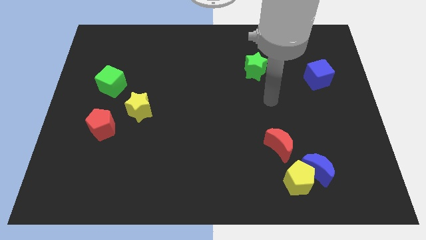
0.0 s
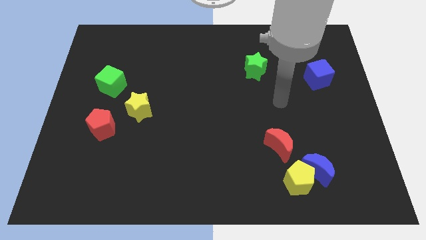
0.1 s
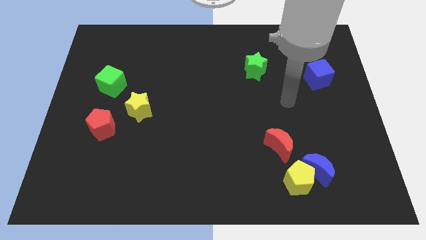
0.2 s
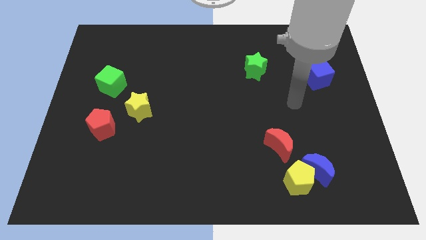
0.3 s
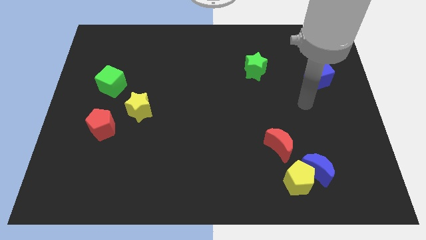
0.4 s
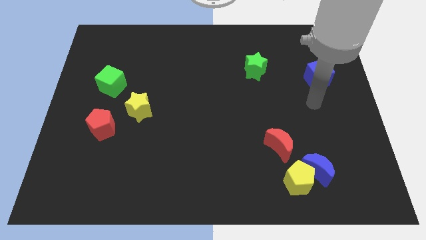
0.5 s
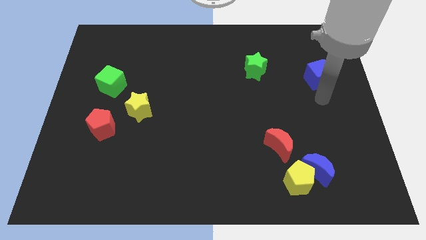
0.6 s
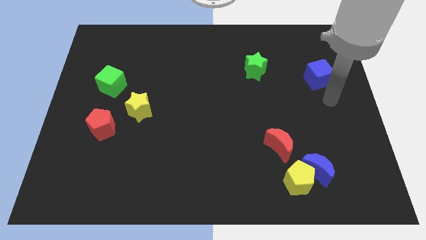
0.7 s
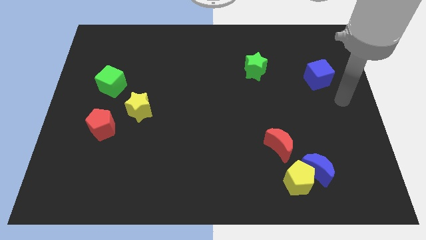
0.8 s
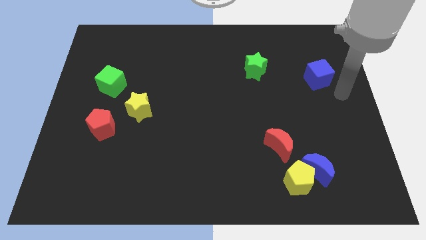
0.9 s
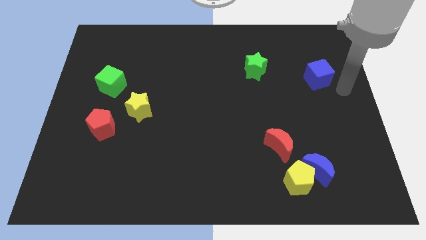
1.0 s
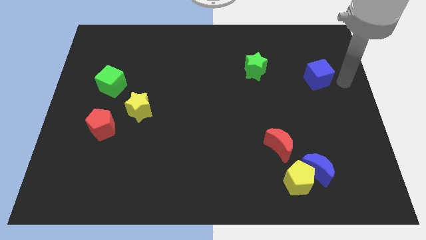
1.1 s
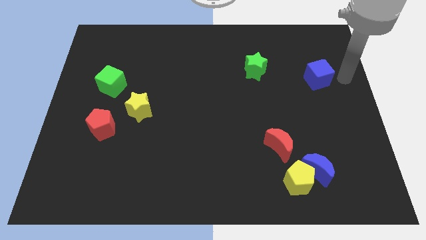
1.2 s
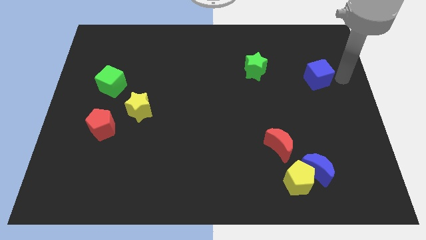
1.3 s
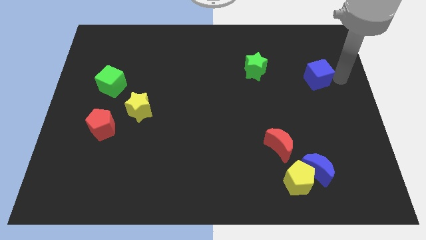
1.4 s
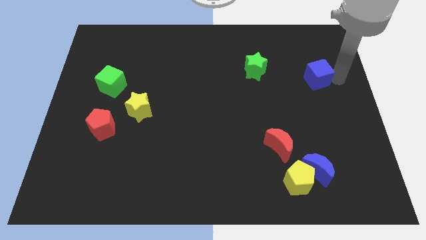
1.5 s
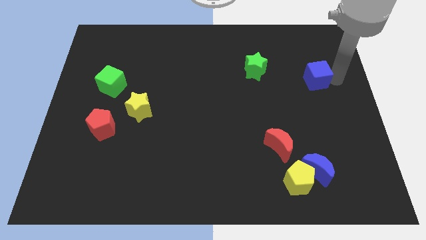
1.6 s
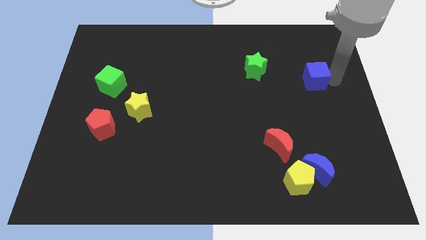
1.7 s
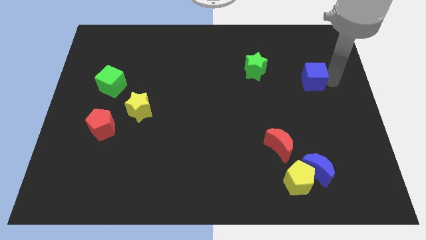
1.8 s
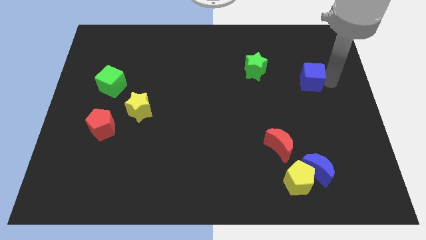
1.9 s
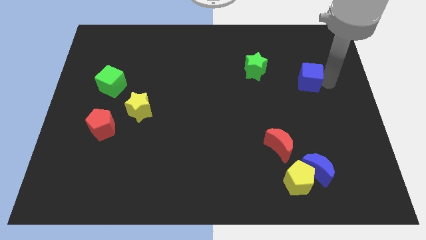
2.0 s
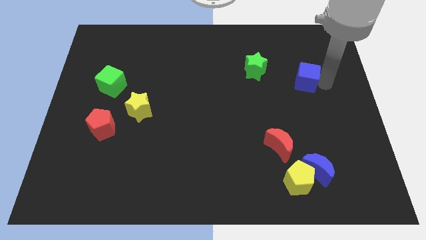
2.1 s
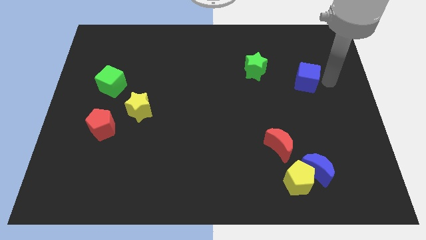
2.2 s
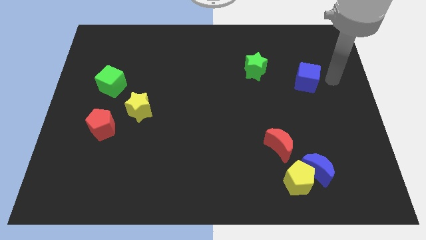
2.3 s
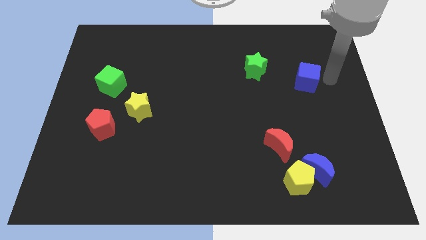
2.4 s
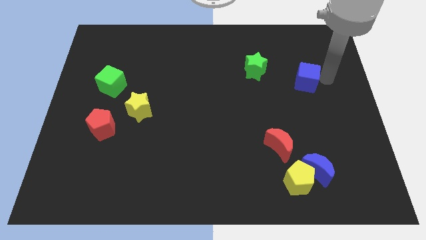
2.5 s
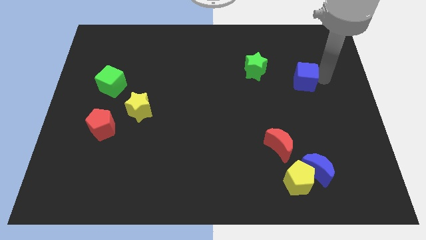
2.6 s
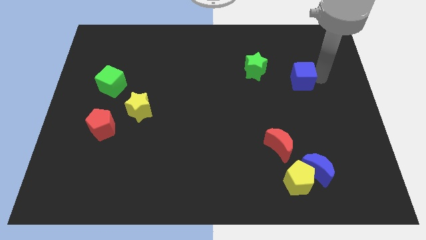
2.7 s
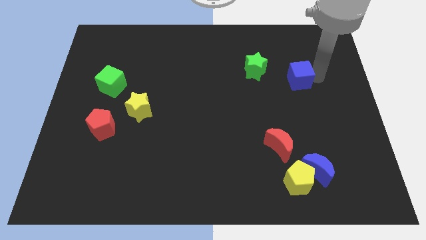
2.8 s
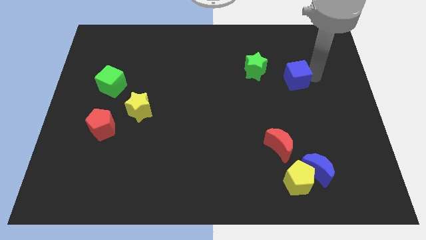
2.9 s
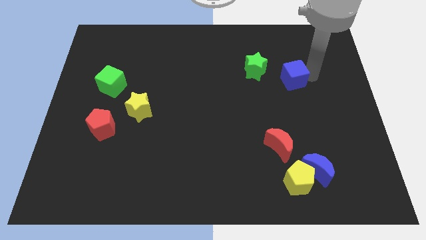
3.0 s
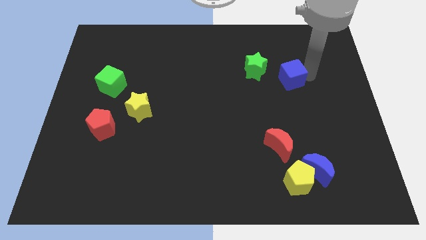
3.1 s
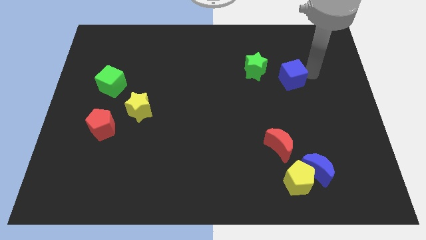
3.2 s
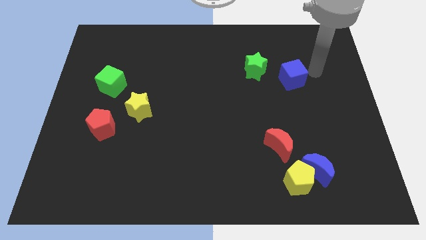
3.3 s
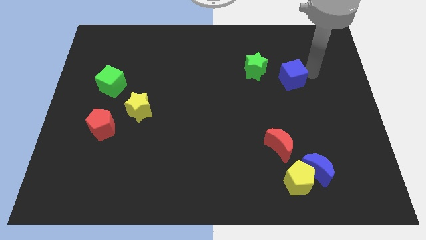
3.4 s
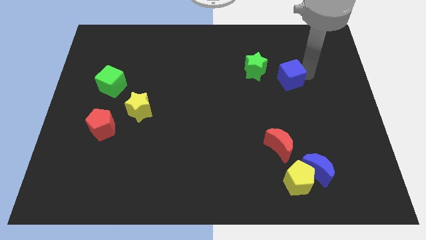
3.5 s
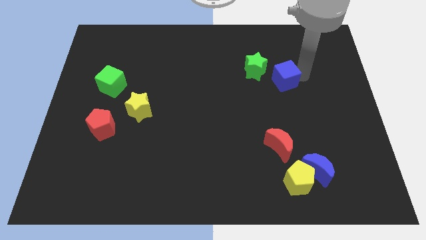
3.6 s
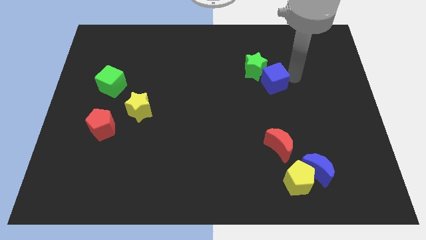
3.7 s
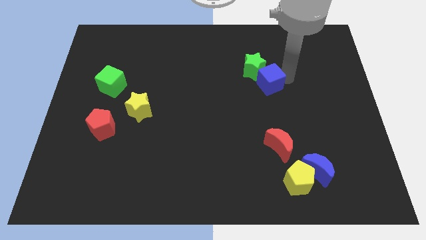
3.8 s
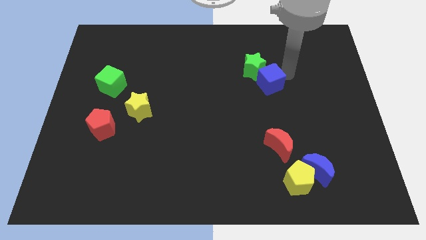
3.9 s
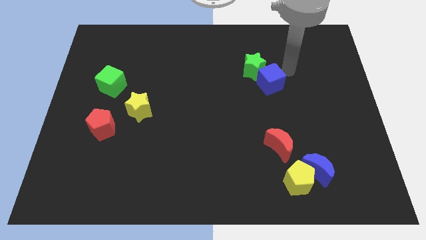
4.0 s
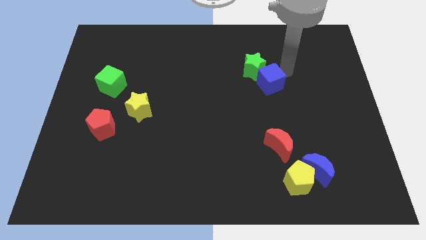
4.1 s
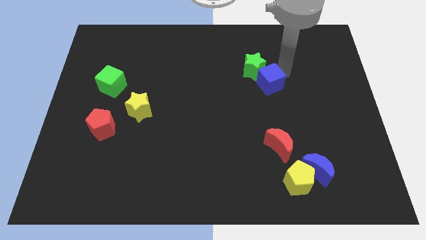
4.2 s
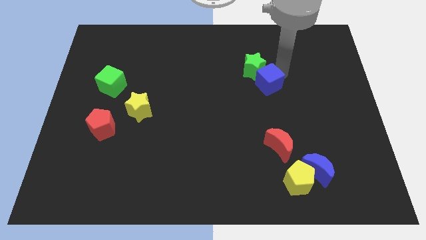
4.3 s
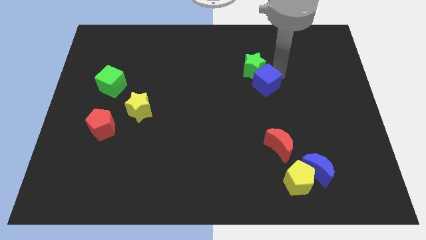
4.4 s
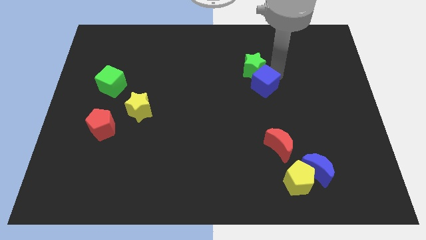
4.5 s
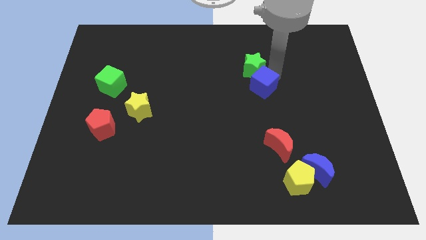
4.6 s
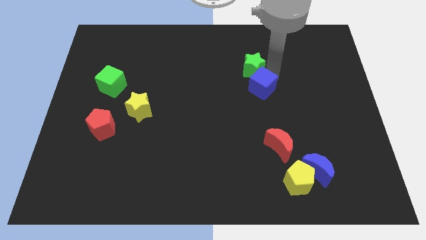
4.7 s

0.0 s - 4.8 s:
move the blue cube to the center

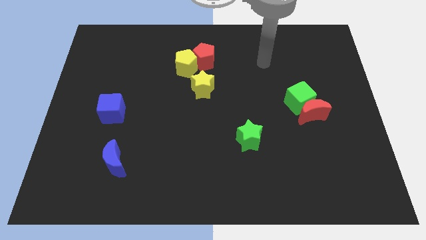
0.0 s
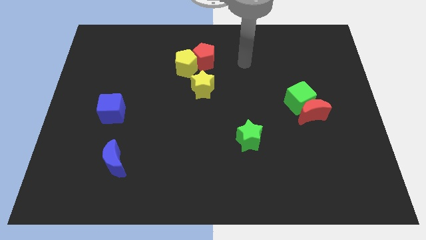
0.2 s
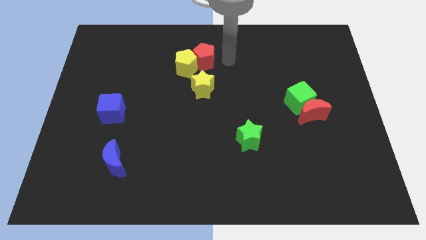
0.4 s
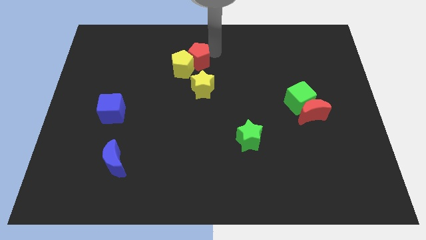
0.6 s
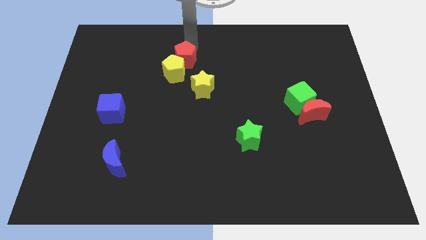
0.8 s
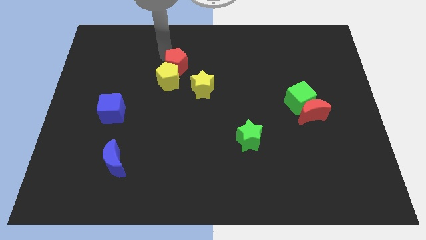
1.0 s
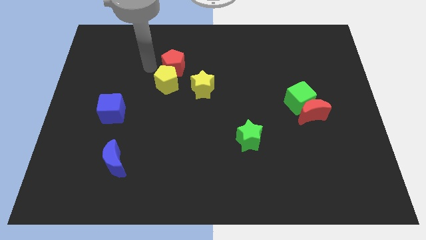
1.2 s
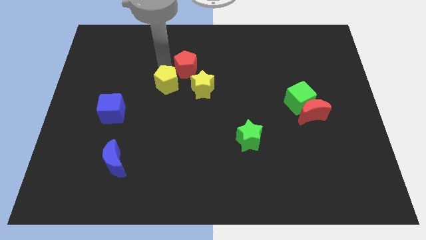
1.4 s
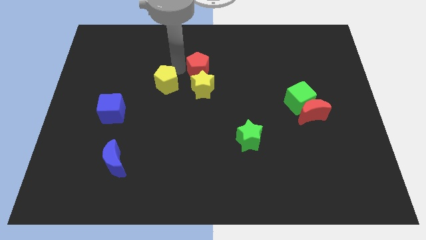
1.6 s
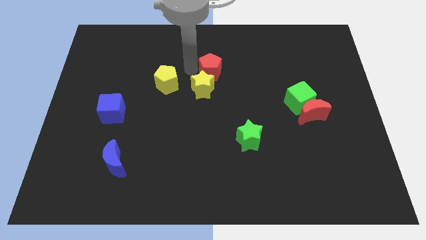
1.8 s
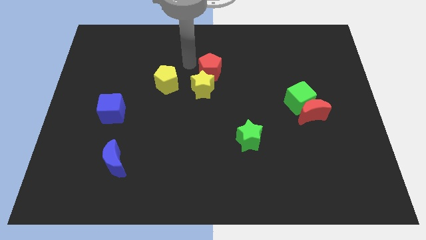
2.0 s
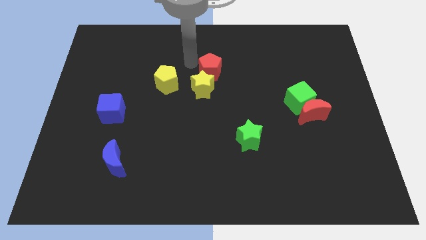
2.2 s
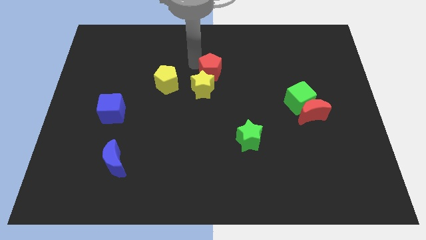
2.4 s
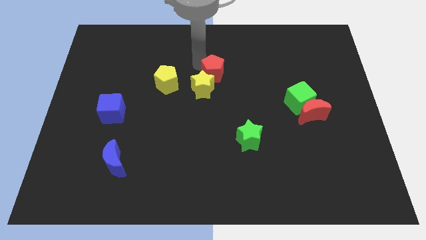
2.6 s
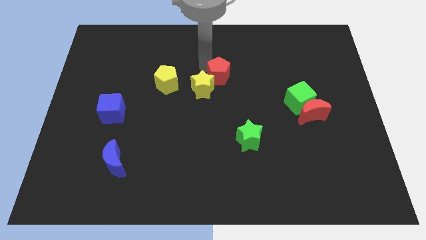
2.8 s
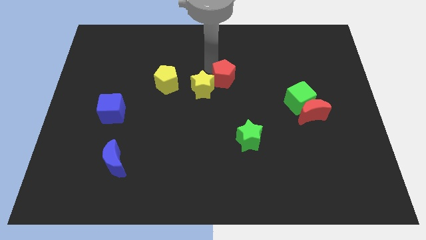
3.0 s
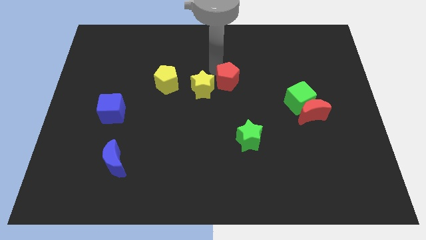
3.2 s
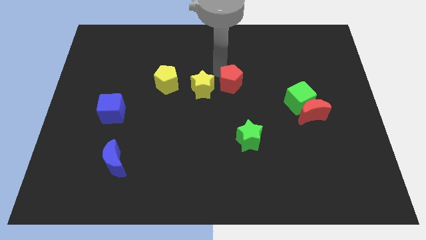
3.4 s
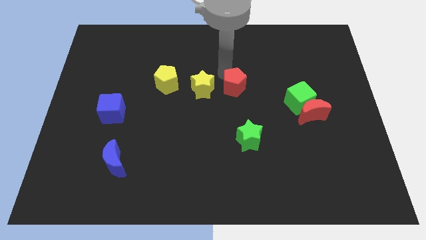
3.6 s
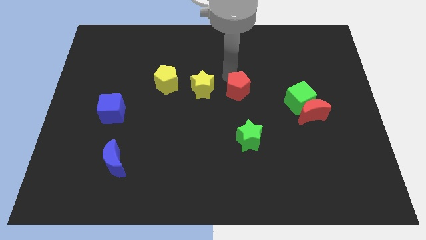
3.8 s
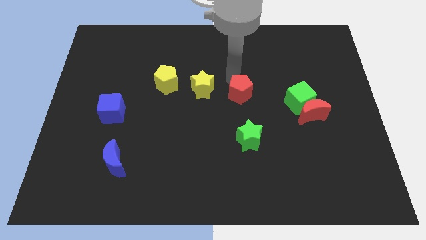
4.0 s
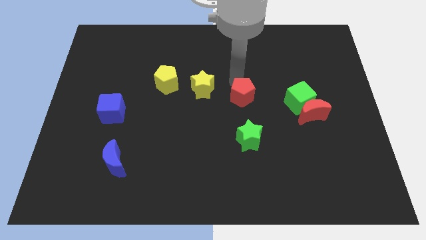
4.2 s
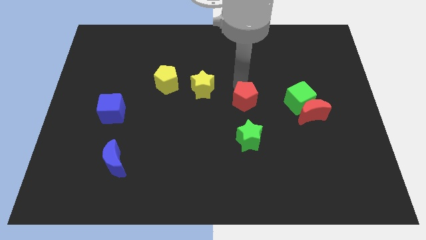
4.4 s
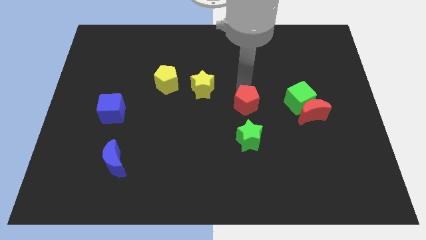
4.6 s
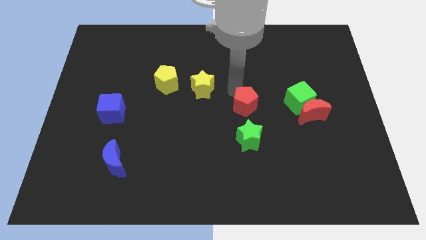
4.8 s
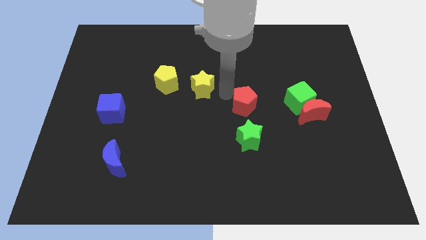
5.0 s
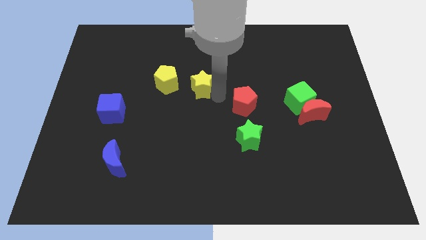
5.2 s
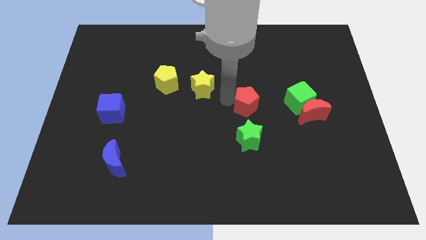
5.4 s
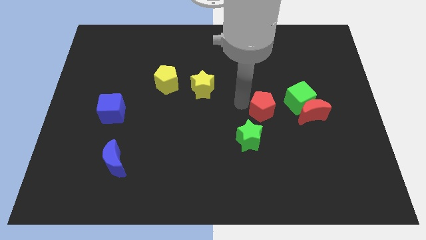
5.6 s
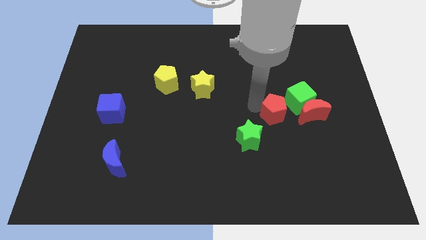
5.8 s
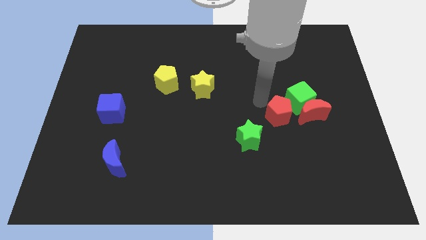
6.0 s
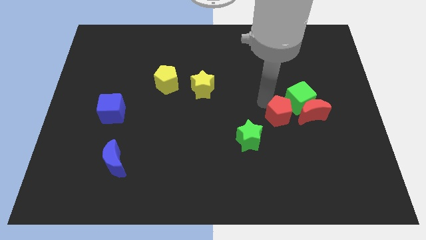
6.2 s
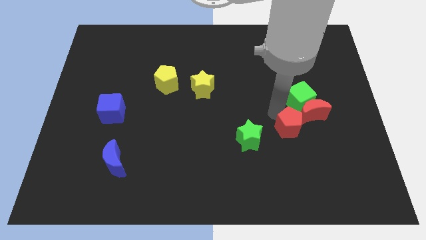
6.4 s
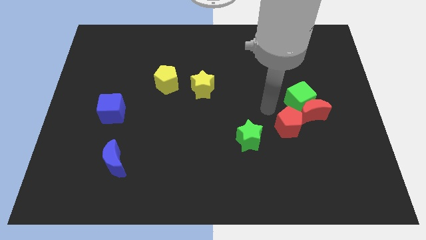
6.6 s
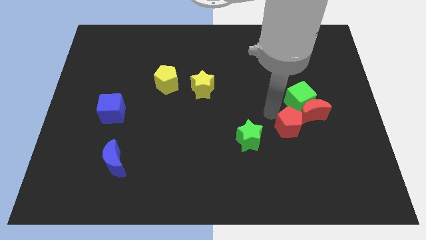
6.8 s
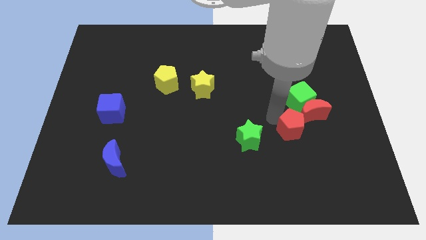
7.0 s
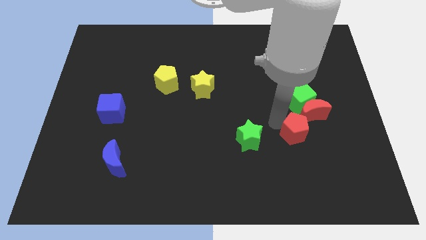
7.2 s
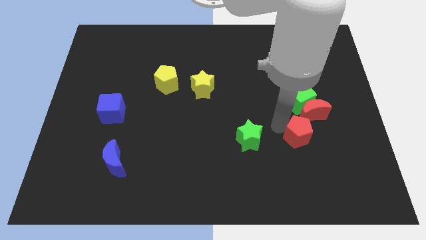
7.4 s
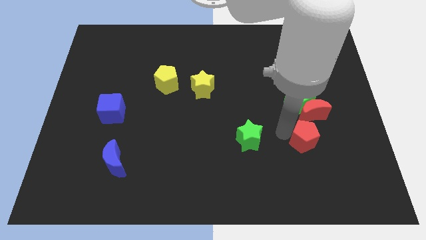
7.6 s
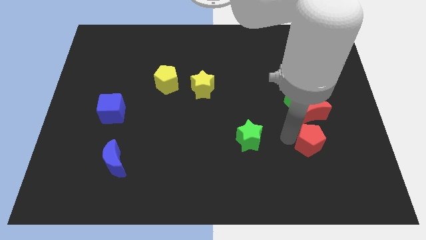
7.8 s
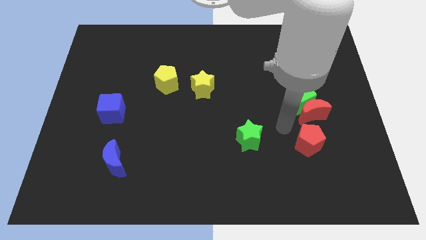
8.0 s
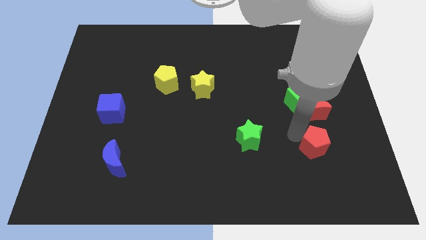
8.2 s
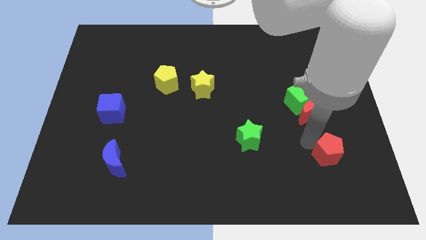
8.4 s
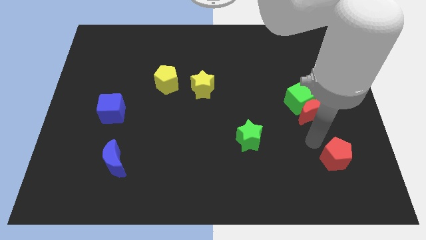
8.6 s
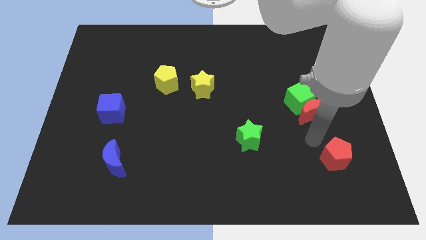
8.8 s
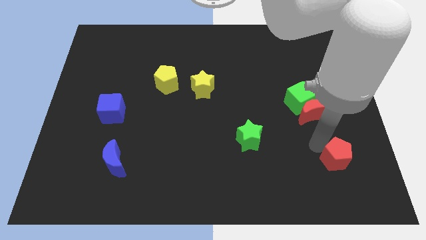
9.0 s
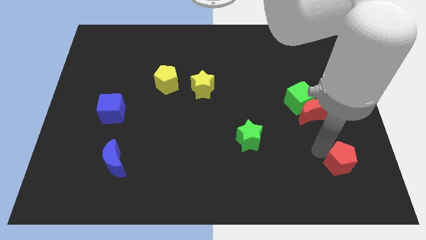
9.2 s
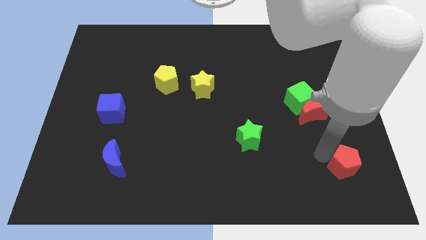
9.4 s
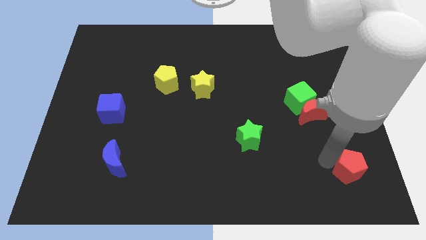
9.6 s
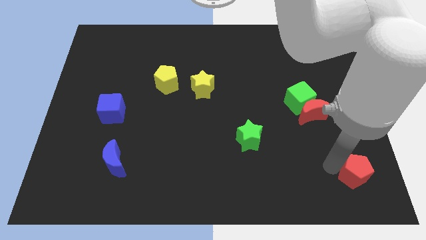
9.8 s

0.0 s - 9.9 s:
move the red pentagon to the bottom right
